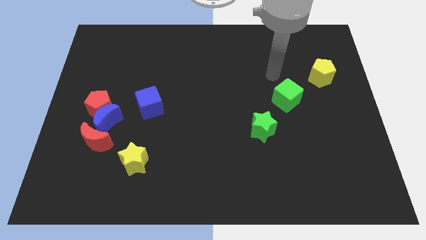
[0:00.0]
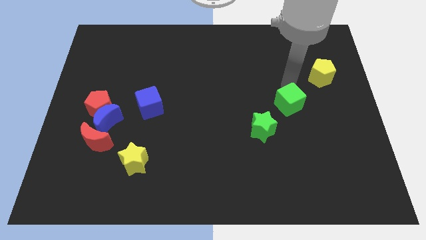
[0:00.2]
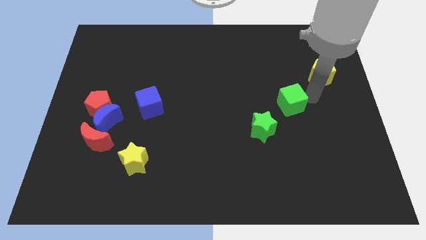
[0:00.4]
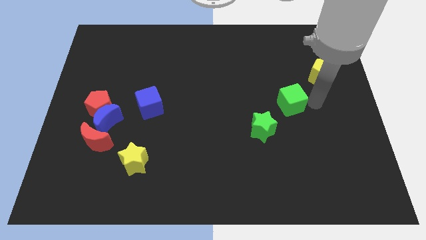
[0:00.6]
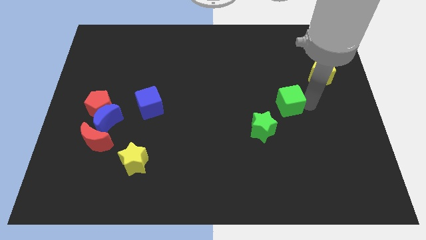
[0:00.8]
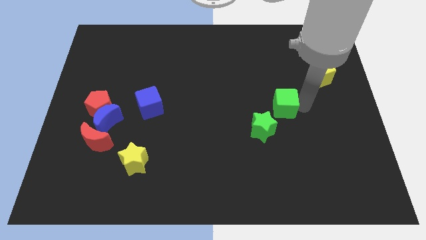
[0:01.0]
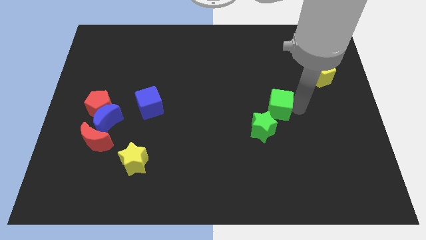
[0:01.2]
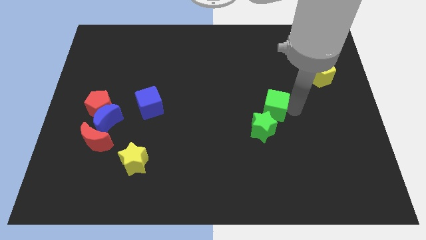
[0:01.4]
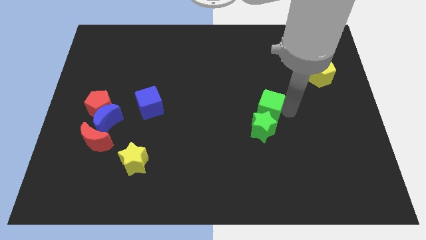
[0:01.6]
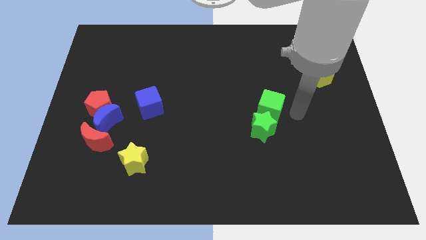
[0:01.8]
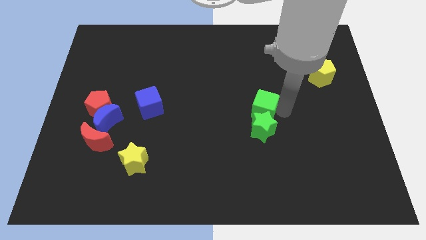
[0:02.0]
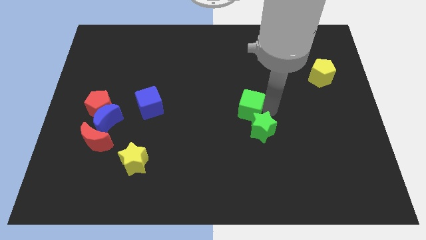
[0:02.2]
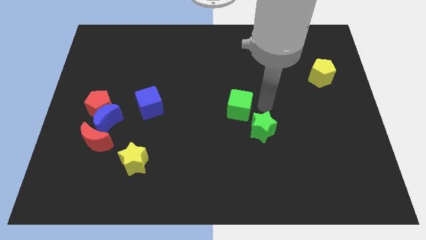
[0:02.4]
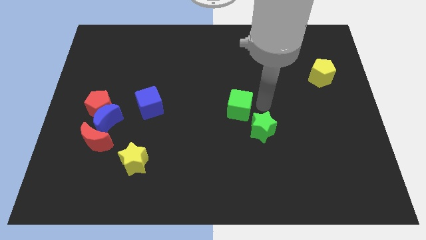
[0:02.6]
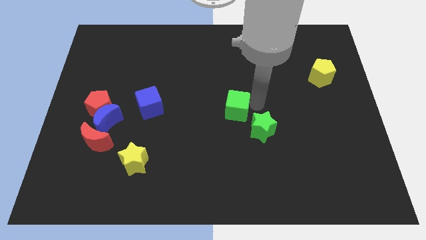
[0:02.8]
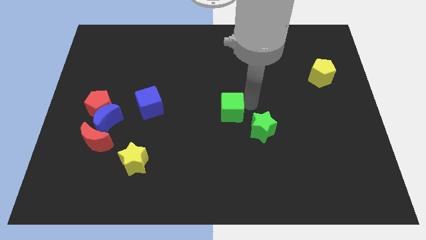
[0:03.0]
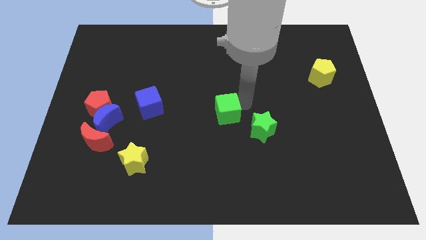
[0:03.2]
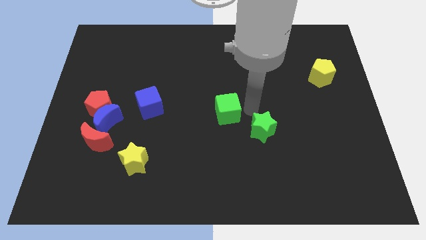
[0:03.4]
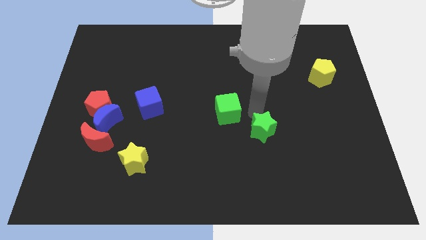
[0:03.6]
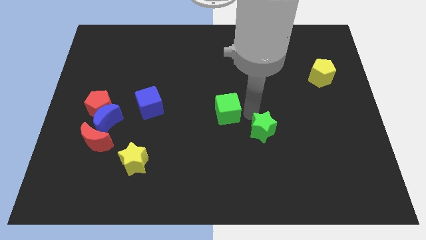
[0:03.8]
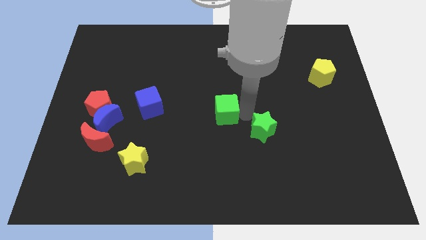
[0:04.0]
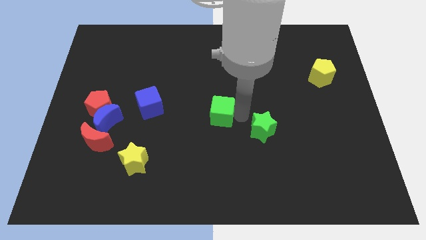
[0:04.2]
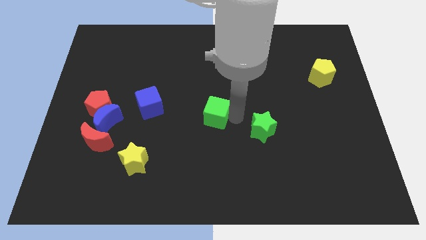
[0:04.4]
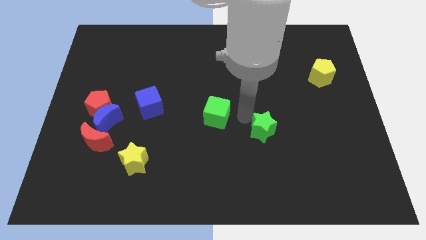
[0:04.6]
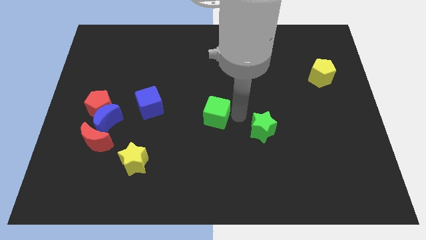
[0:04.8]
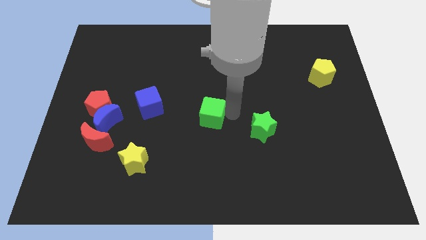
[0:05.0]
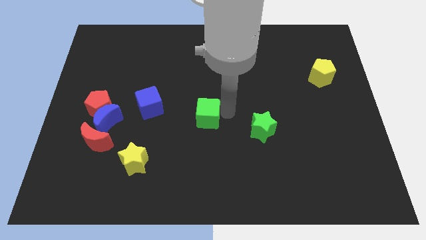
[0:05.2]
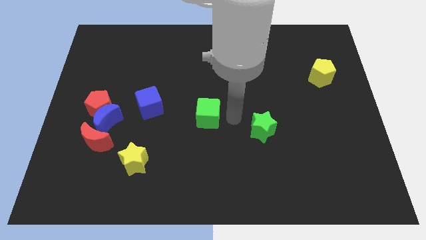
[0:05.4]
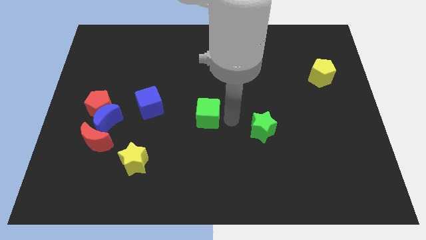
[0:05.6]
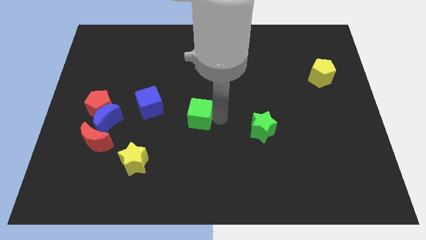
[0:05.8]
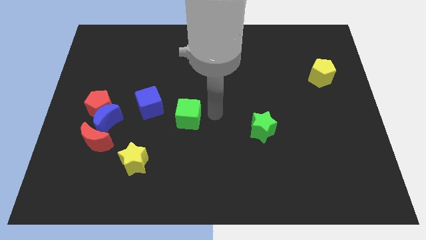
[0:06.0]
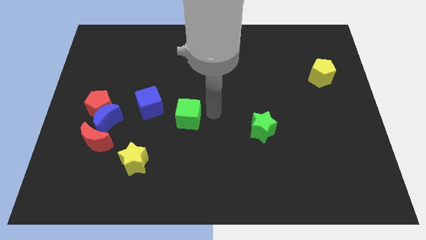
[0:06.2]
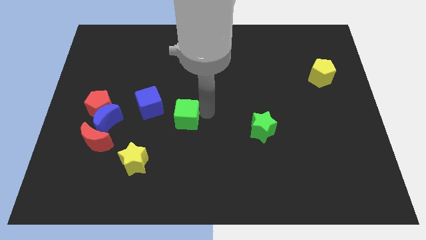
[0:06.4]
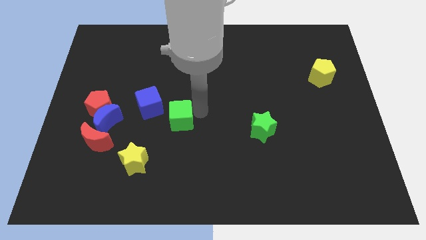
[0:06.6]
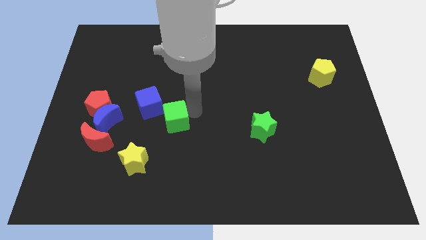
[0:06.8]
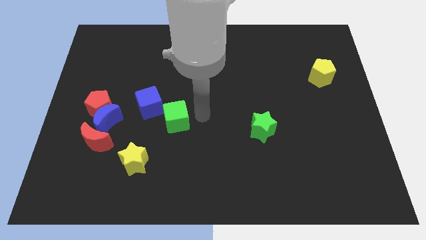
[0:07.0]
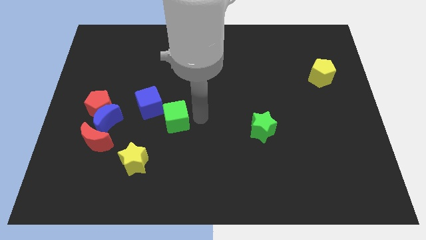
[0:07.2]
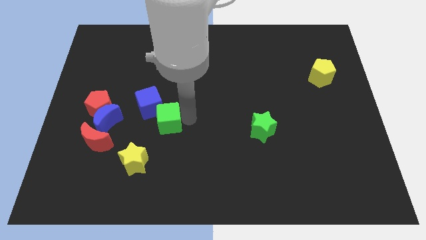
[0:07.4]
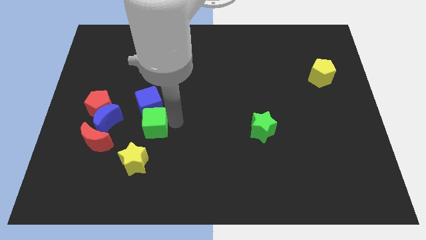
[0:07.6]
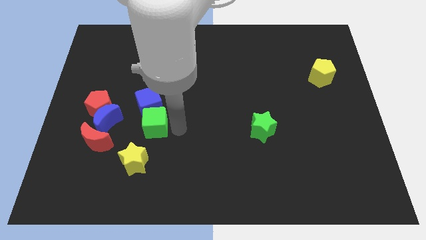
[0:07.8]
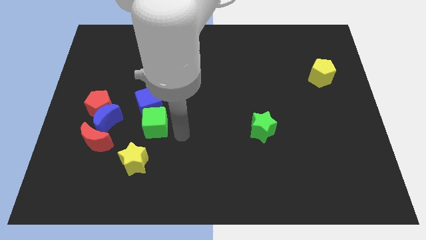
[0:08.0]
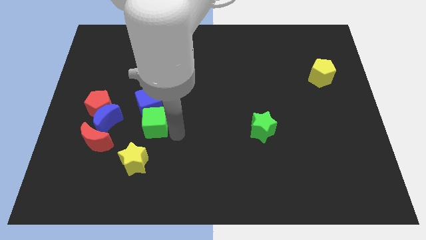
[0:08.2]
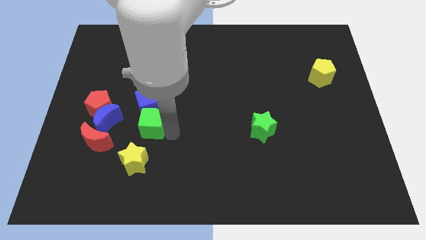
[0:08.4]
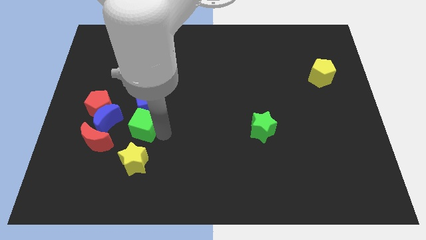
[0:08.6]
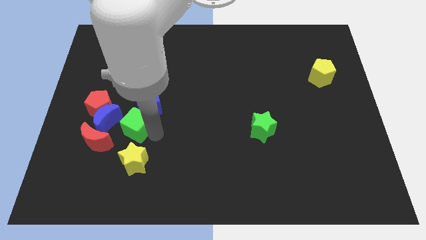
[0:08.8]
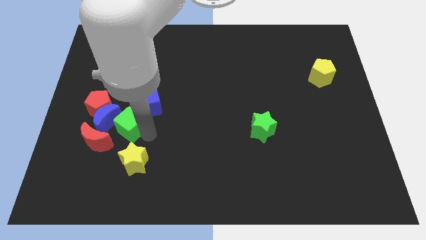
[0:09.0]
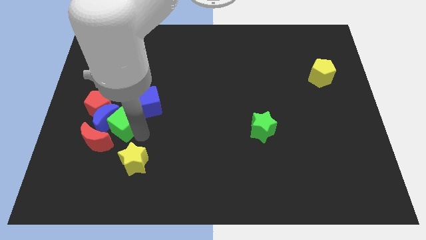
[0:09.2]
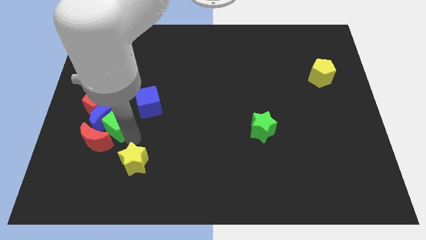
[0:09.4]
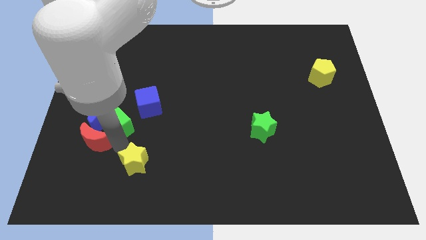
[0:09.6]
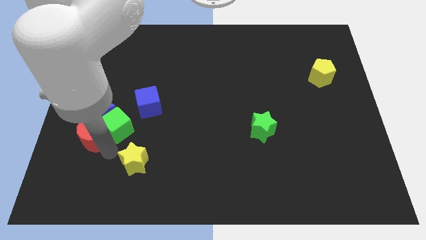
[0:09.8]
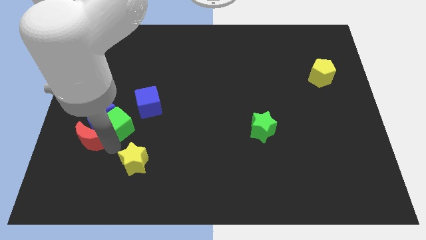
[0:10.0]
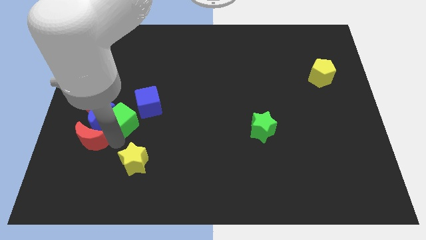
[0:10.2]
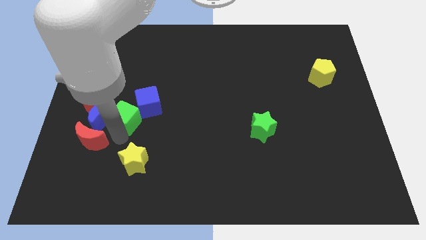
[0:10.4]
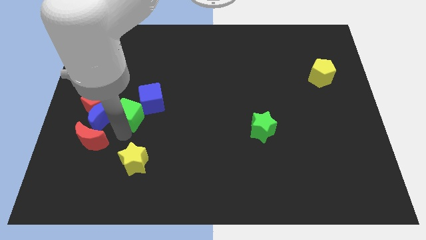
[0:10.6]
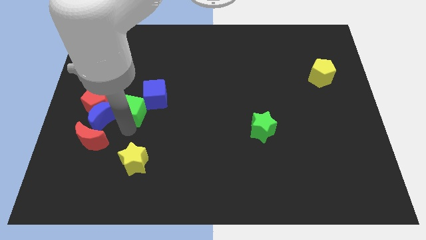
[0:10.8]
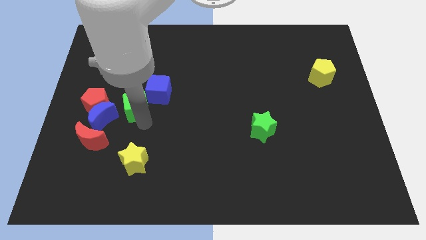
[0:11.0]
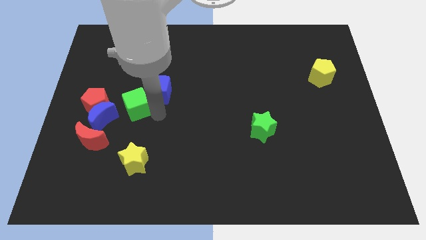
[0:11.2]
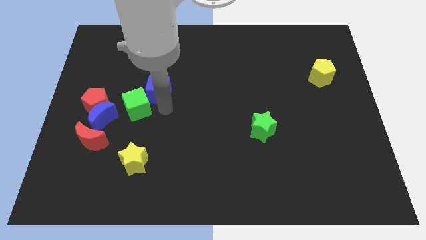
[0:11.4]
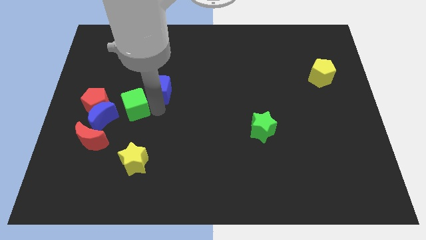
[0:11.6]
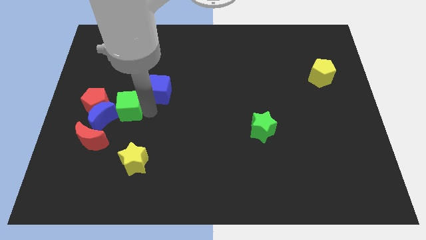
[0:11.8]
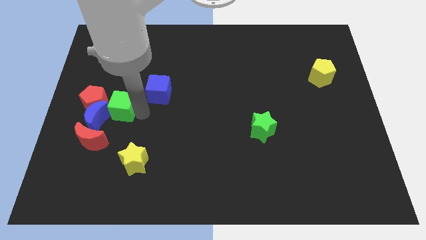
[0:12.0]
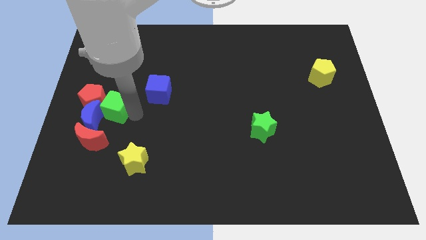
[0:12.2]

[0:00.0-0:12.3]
push the green cube next to the red pentagon

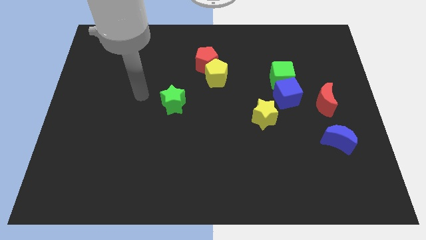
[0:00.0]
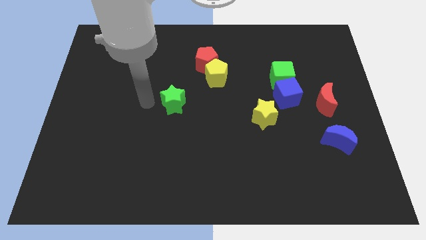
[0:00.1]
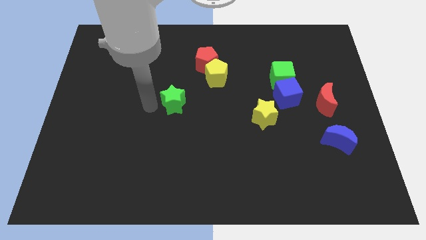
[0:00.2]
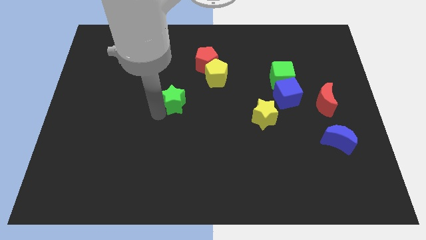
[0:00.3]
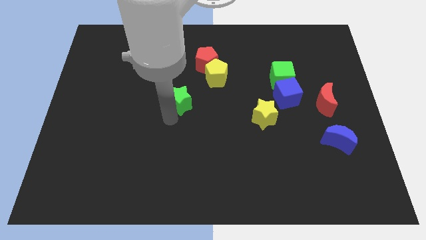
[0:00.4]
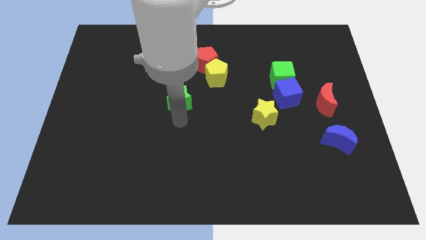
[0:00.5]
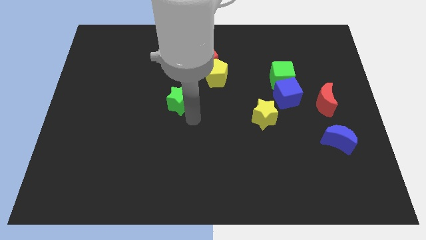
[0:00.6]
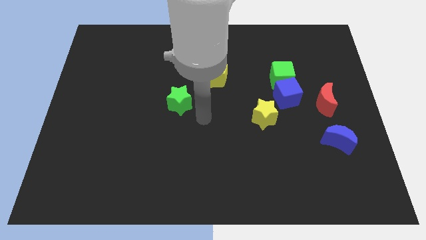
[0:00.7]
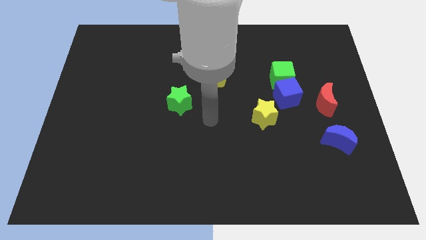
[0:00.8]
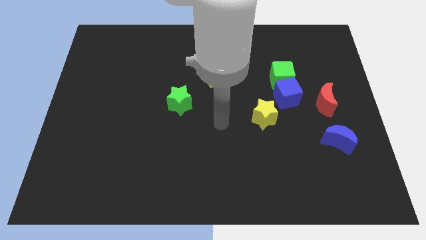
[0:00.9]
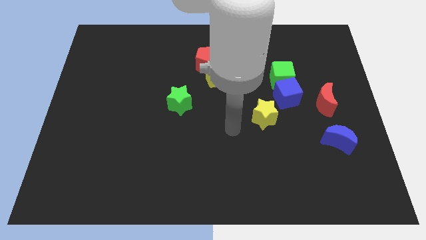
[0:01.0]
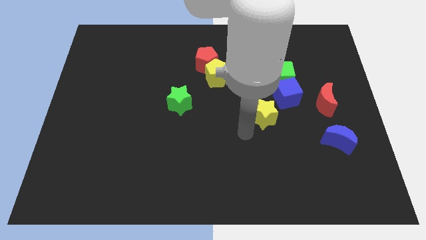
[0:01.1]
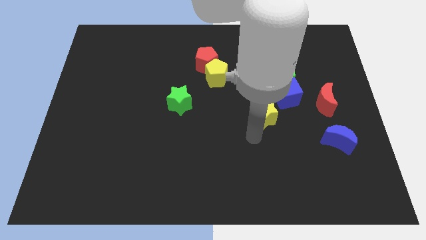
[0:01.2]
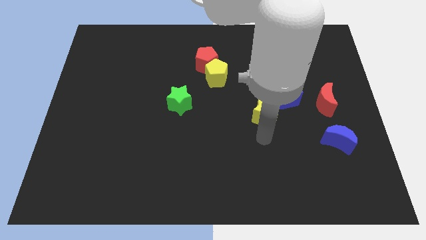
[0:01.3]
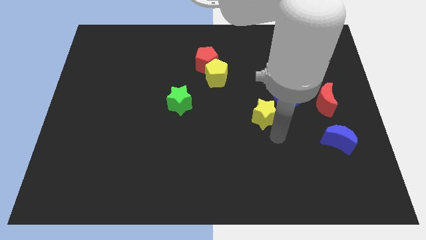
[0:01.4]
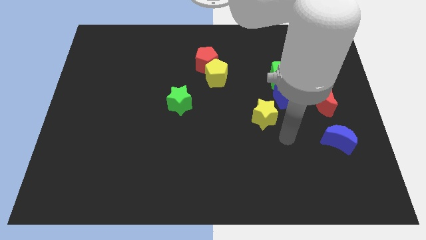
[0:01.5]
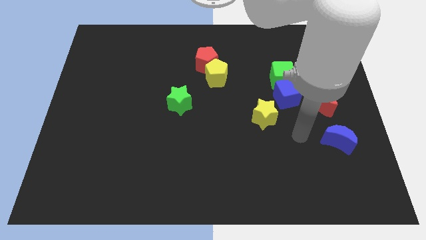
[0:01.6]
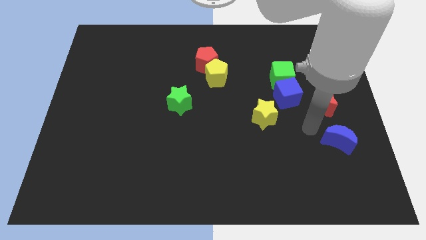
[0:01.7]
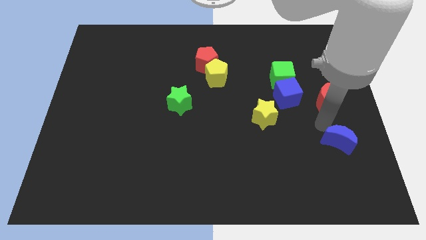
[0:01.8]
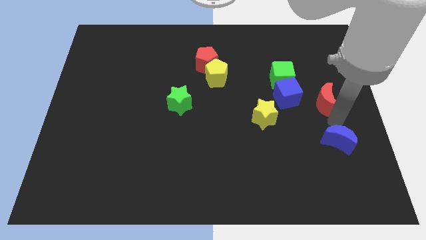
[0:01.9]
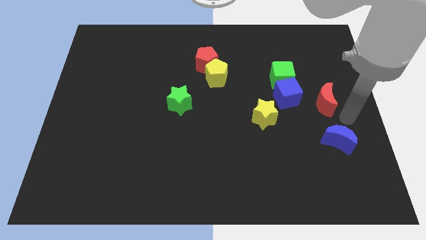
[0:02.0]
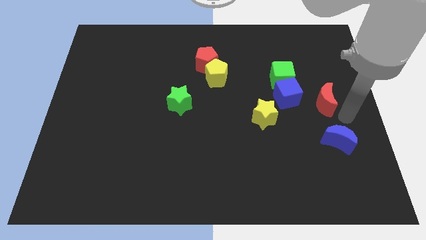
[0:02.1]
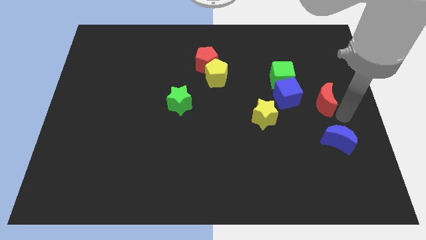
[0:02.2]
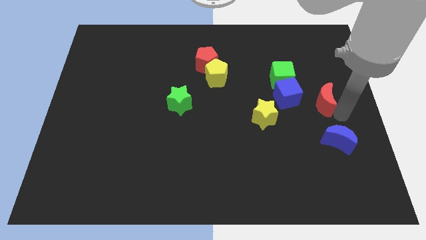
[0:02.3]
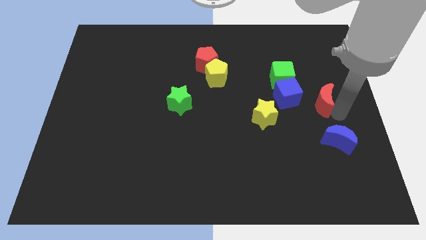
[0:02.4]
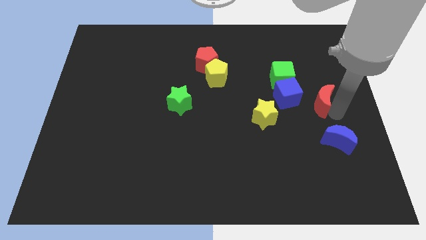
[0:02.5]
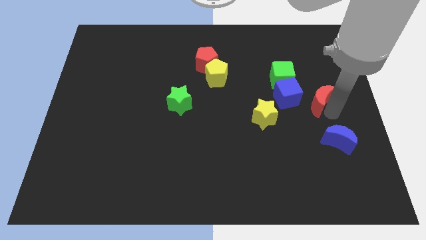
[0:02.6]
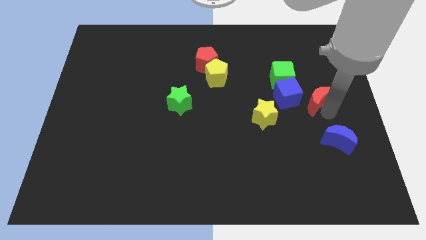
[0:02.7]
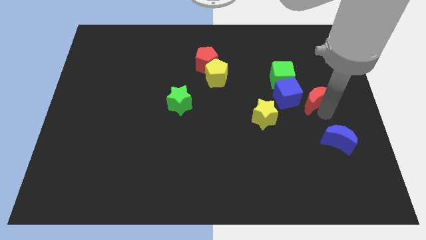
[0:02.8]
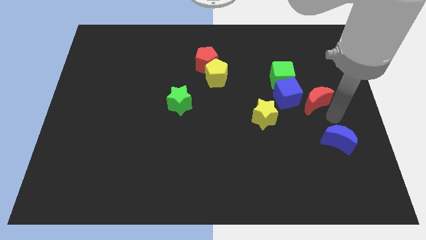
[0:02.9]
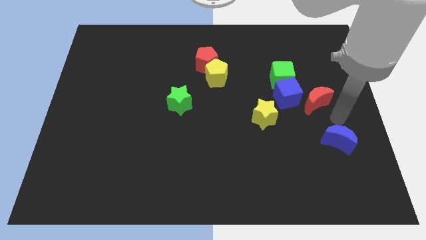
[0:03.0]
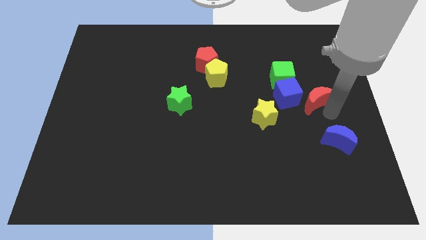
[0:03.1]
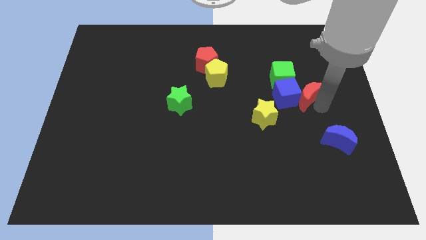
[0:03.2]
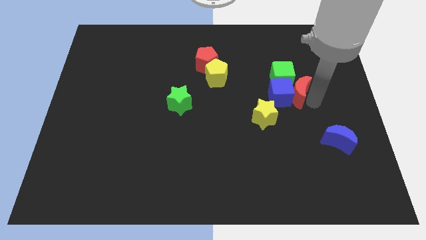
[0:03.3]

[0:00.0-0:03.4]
move the red moon close to the green cube
